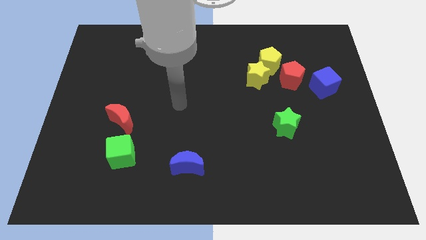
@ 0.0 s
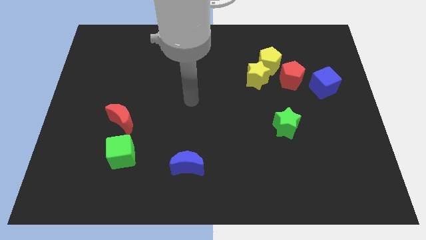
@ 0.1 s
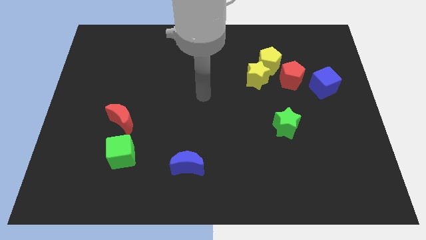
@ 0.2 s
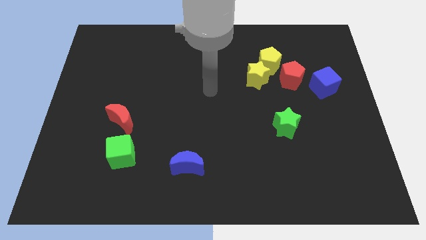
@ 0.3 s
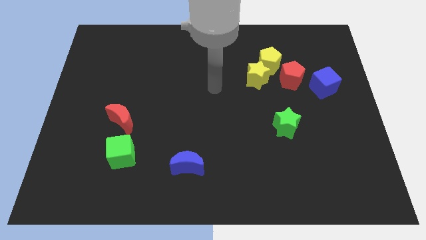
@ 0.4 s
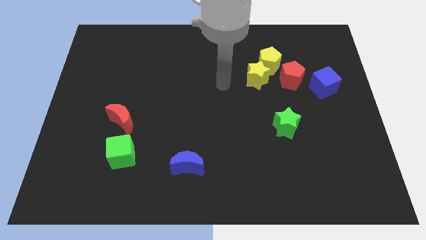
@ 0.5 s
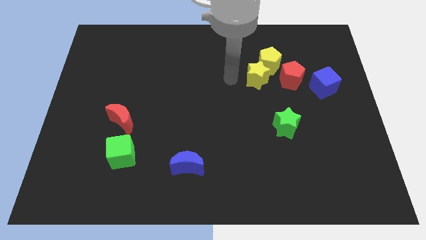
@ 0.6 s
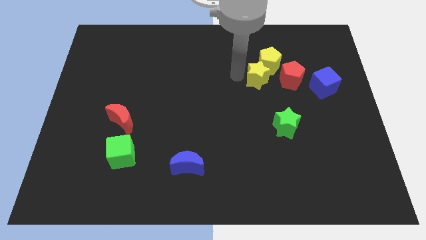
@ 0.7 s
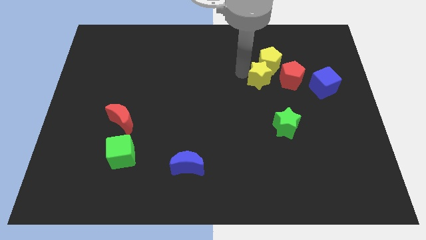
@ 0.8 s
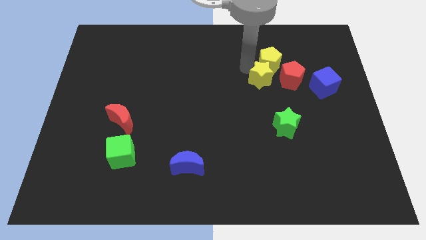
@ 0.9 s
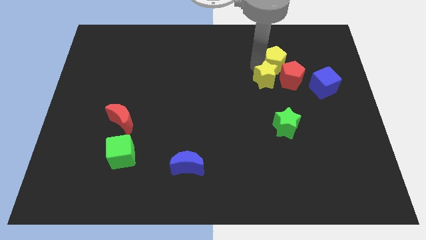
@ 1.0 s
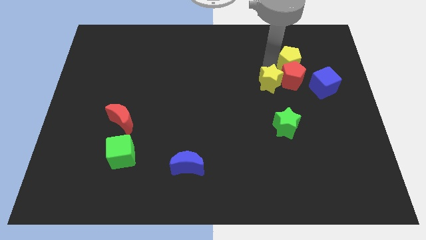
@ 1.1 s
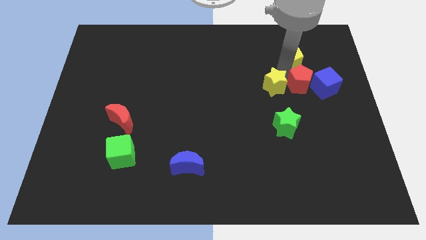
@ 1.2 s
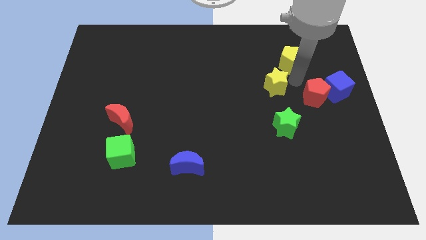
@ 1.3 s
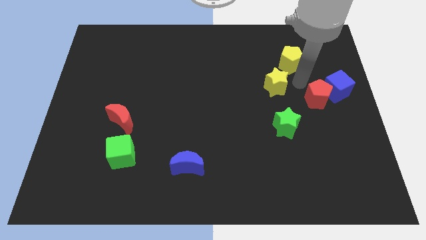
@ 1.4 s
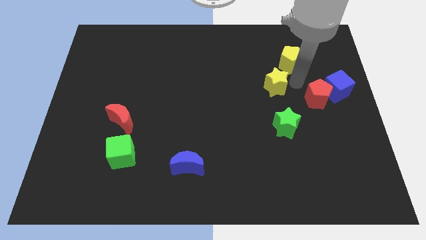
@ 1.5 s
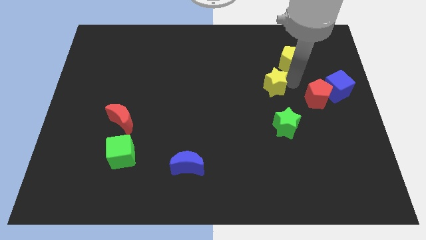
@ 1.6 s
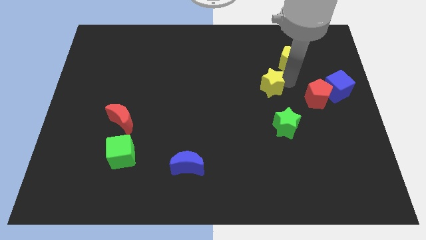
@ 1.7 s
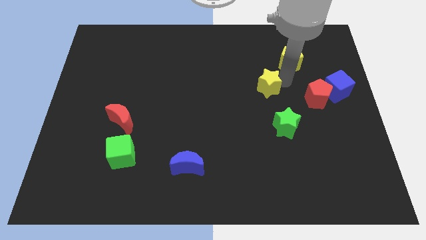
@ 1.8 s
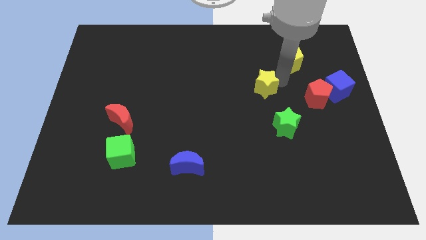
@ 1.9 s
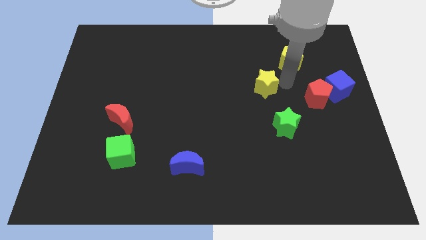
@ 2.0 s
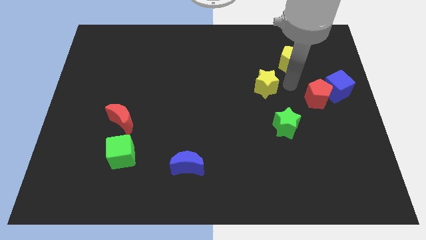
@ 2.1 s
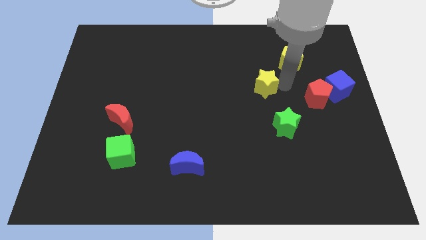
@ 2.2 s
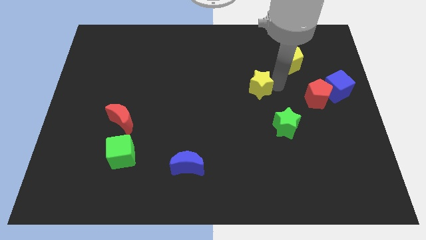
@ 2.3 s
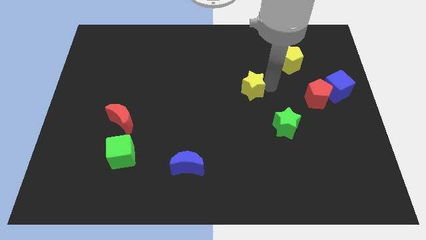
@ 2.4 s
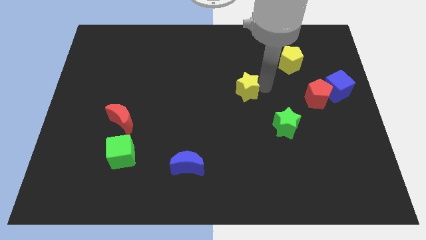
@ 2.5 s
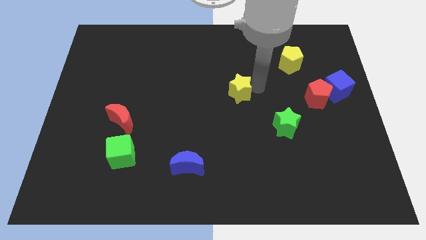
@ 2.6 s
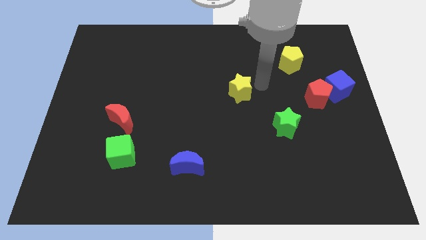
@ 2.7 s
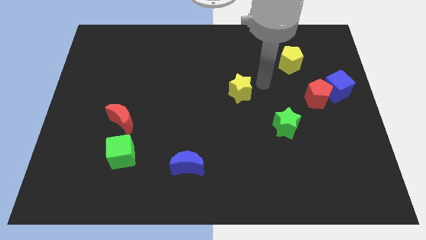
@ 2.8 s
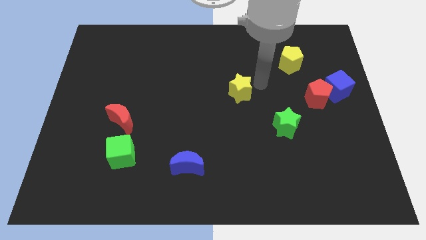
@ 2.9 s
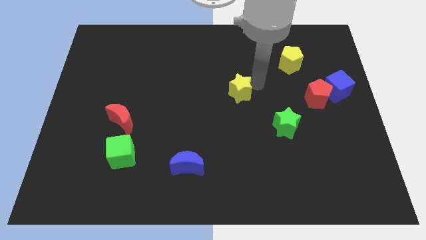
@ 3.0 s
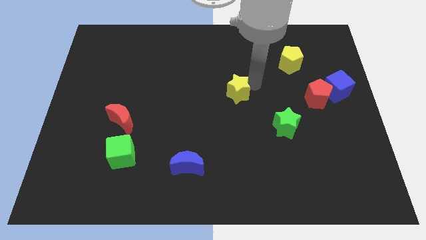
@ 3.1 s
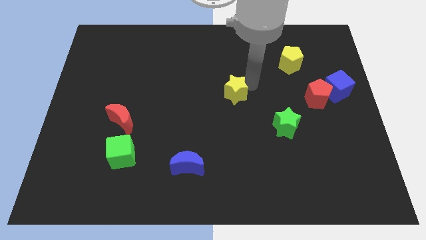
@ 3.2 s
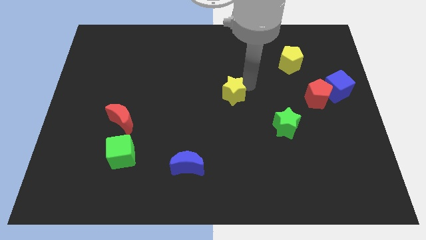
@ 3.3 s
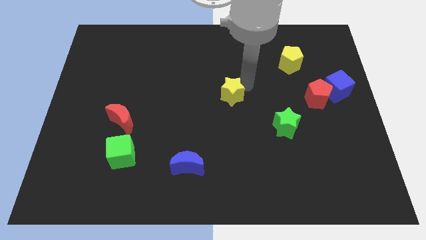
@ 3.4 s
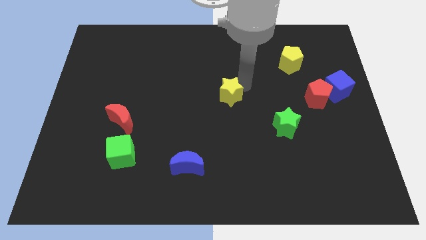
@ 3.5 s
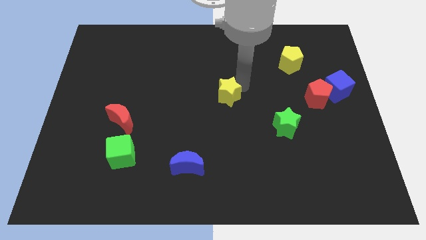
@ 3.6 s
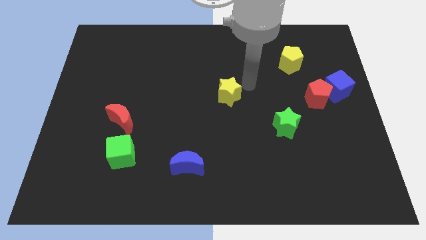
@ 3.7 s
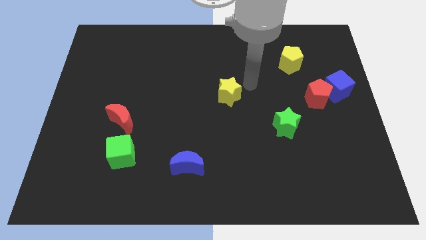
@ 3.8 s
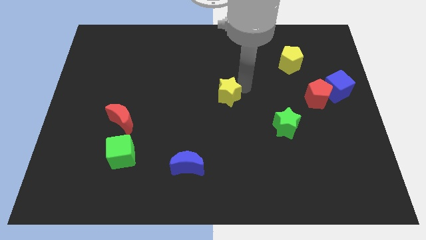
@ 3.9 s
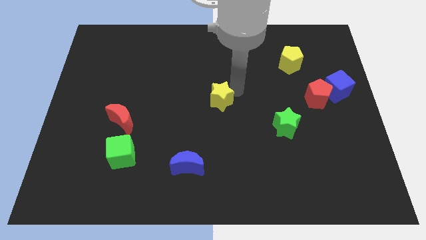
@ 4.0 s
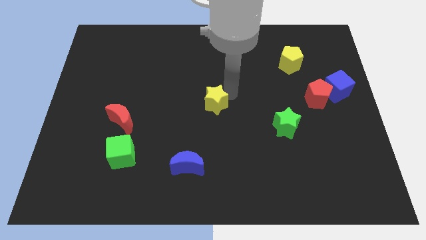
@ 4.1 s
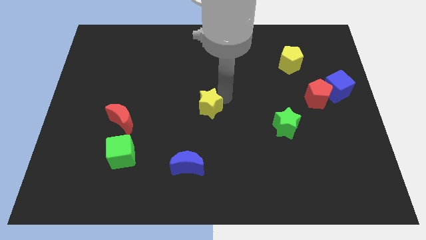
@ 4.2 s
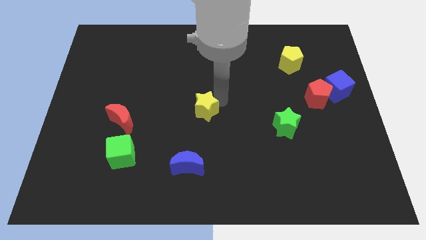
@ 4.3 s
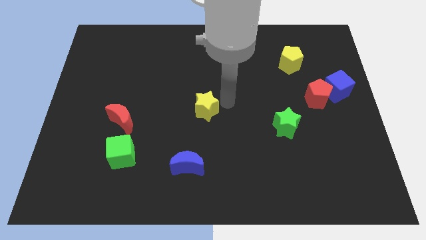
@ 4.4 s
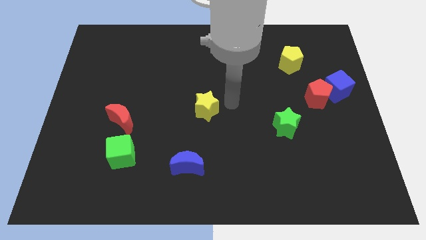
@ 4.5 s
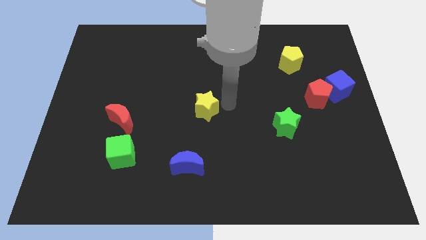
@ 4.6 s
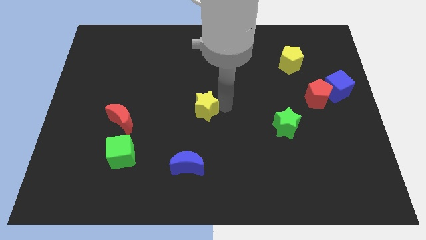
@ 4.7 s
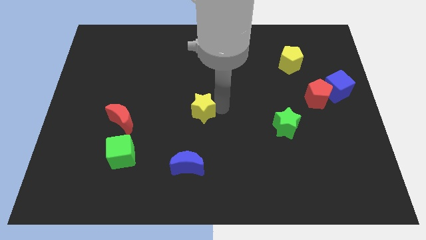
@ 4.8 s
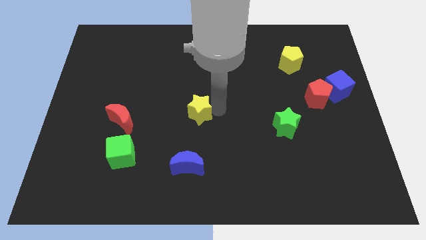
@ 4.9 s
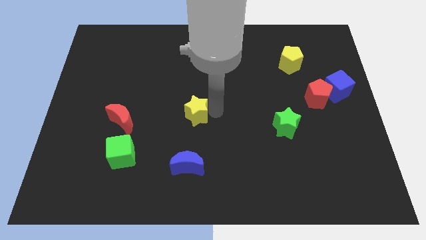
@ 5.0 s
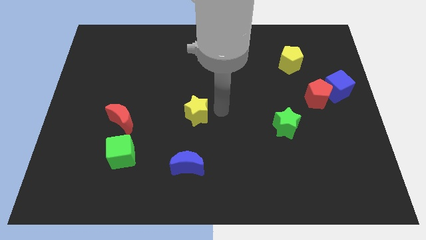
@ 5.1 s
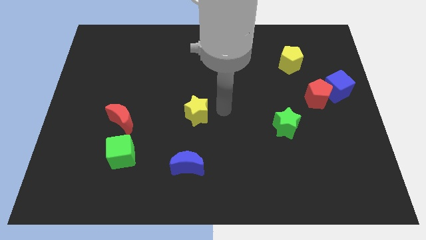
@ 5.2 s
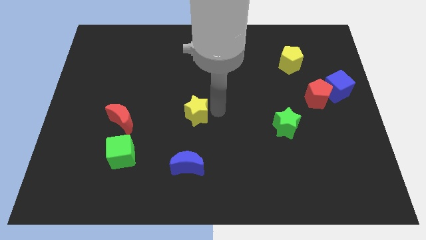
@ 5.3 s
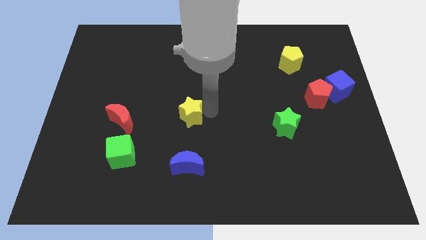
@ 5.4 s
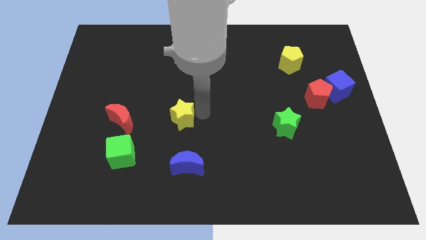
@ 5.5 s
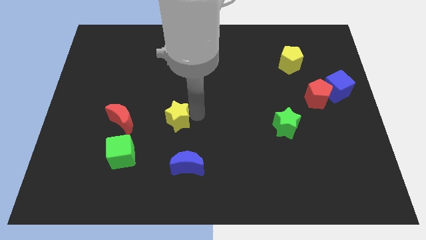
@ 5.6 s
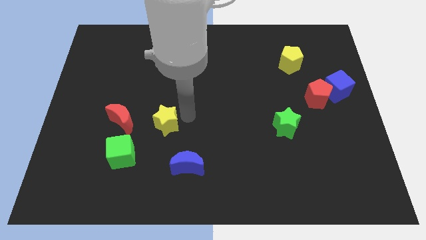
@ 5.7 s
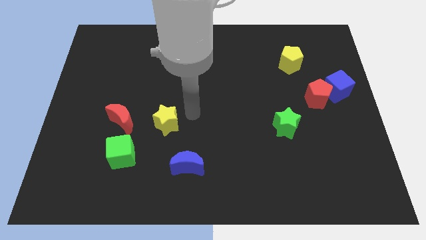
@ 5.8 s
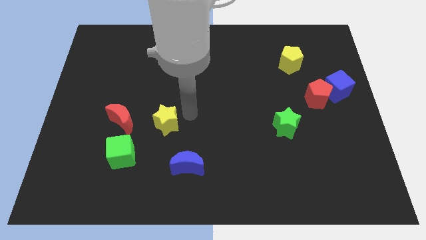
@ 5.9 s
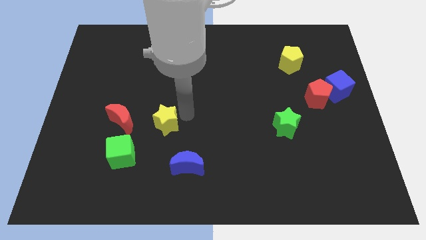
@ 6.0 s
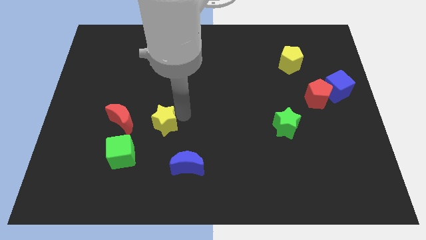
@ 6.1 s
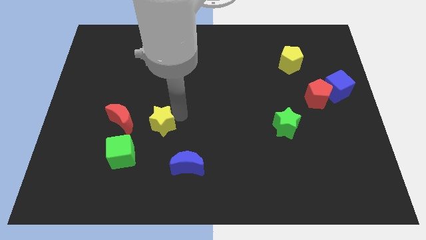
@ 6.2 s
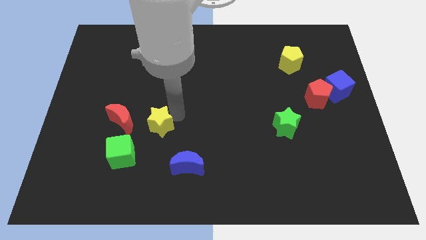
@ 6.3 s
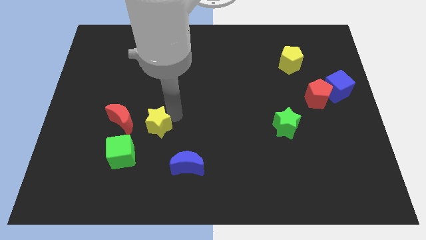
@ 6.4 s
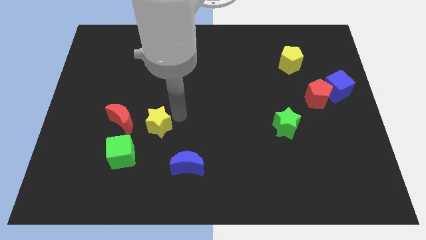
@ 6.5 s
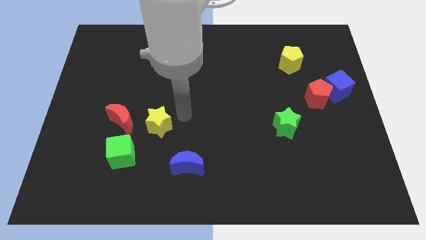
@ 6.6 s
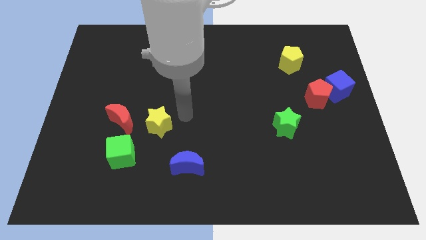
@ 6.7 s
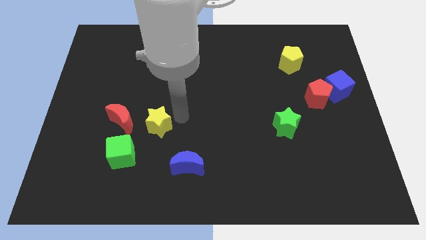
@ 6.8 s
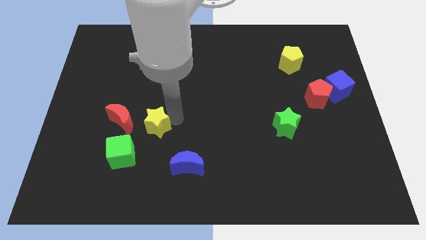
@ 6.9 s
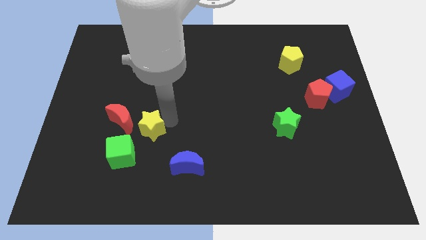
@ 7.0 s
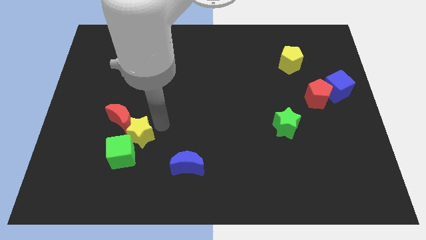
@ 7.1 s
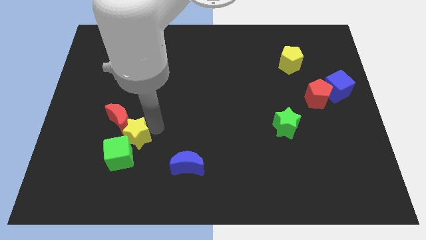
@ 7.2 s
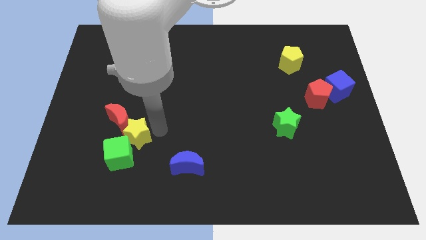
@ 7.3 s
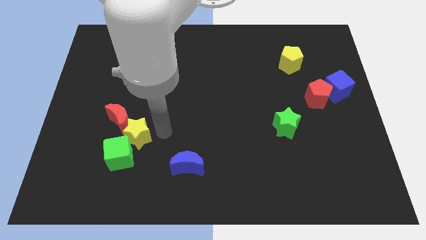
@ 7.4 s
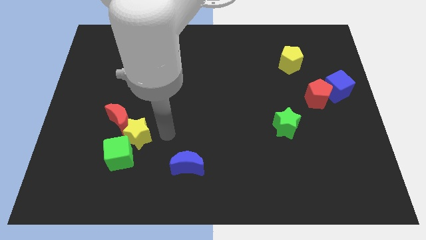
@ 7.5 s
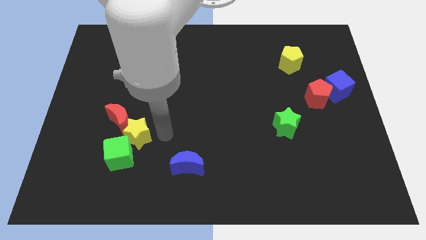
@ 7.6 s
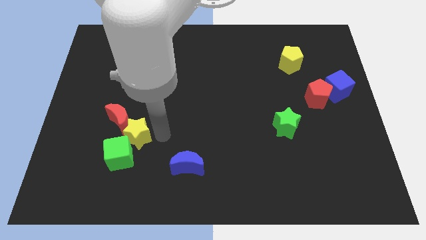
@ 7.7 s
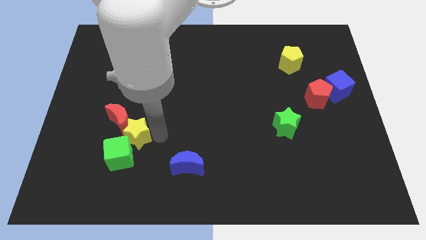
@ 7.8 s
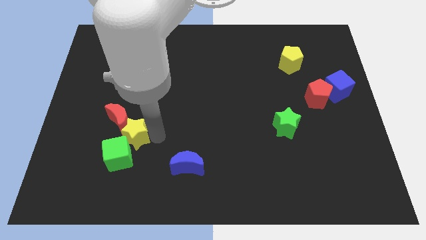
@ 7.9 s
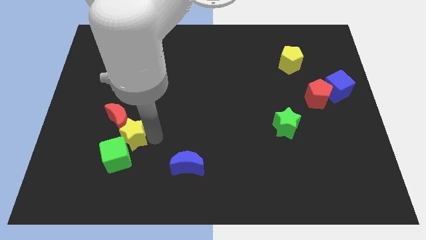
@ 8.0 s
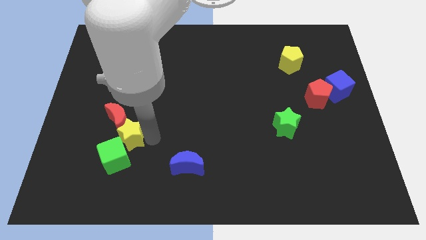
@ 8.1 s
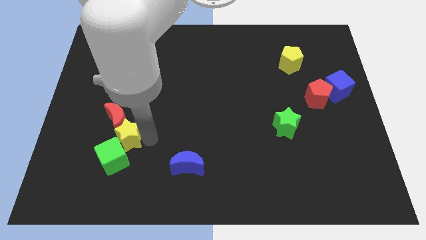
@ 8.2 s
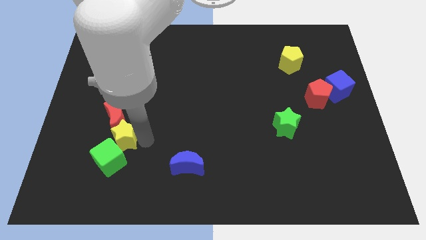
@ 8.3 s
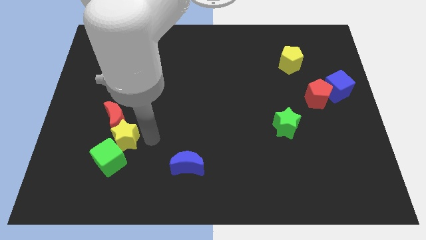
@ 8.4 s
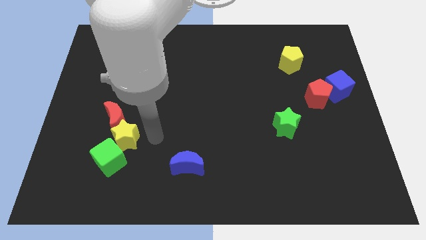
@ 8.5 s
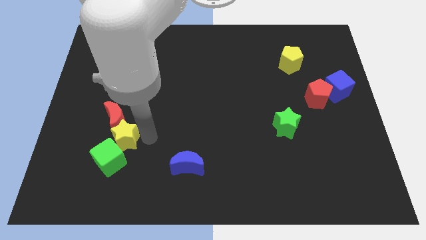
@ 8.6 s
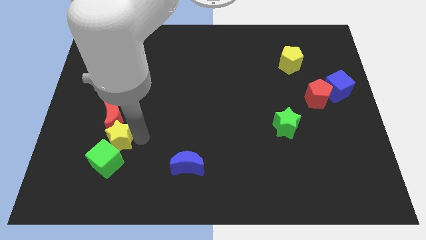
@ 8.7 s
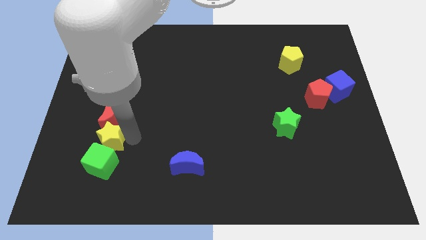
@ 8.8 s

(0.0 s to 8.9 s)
move the yellow star to the top left of the green cube
